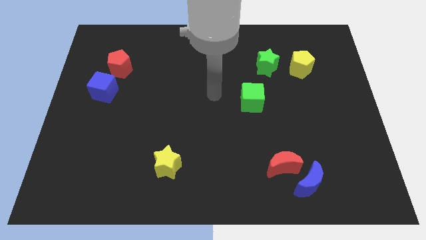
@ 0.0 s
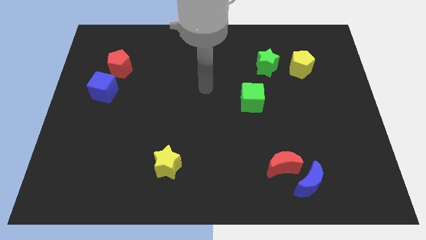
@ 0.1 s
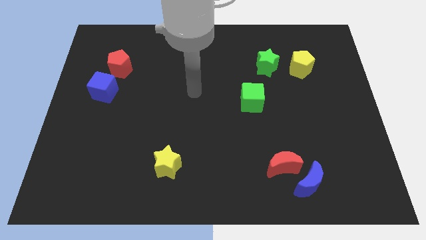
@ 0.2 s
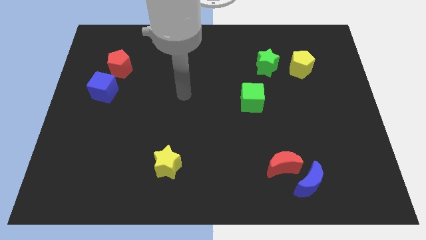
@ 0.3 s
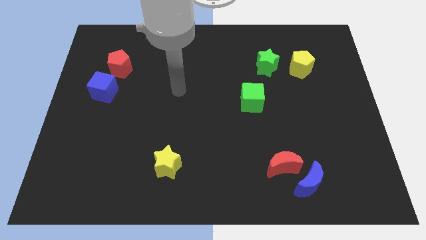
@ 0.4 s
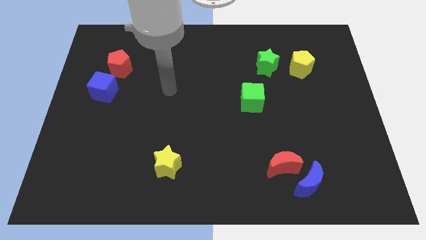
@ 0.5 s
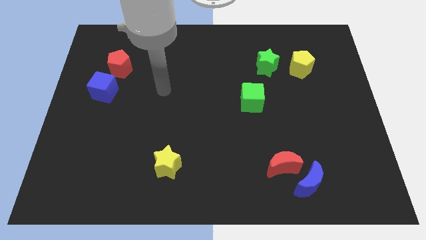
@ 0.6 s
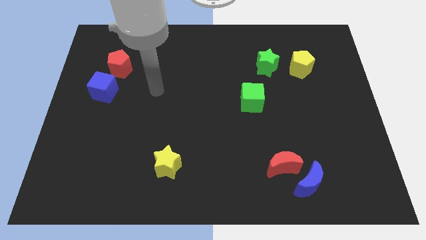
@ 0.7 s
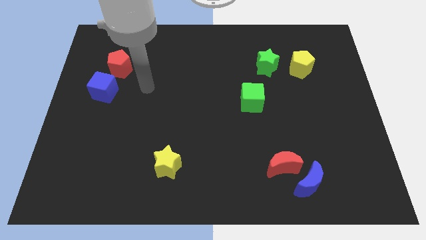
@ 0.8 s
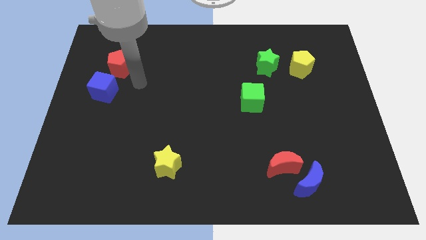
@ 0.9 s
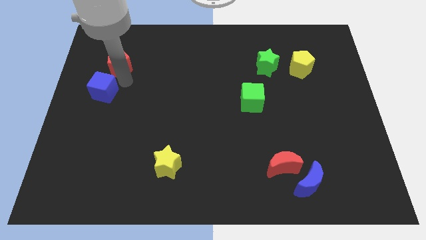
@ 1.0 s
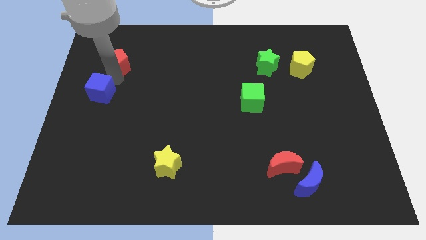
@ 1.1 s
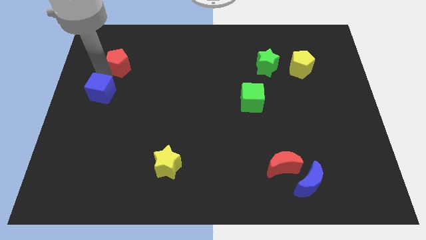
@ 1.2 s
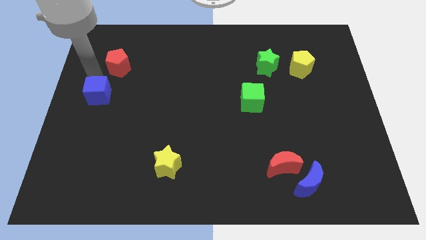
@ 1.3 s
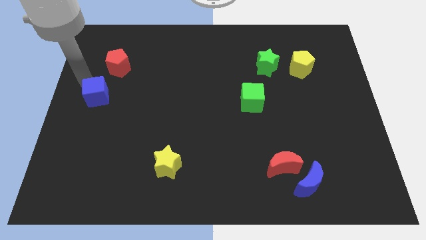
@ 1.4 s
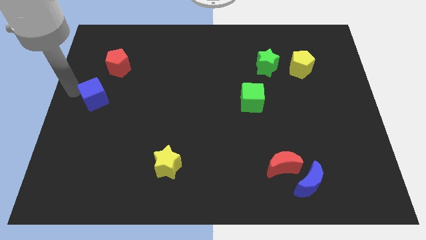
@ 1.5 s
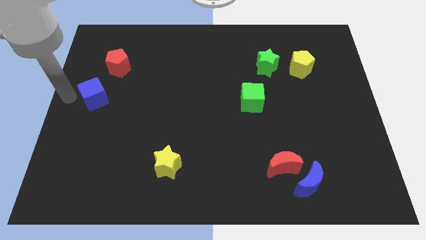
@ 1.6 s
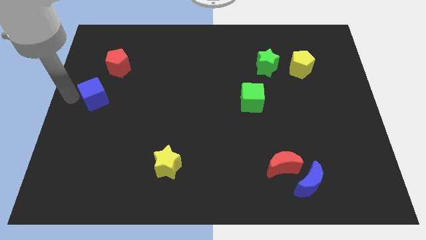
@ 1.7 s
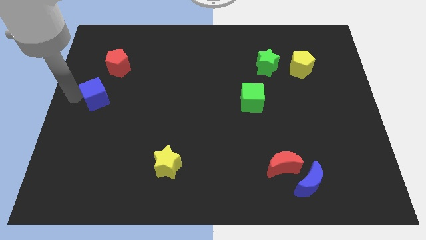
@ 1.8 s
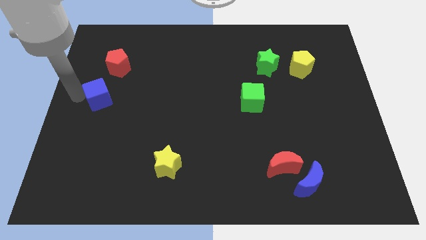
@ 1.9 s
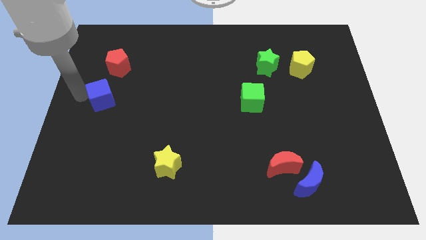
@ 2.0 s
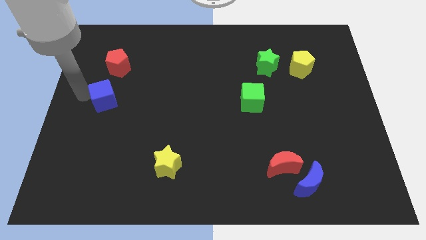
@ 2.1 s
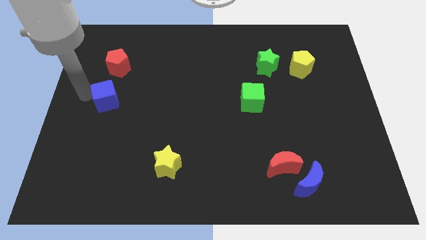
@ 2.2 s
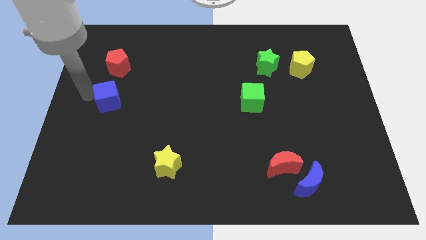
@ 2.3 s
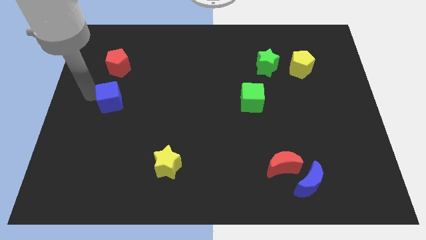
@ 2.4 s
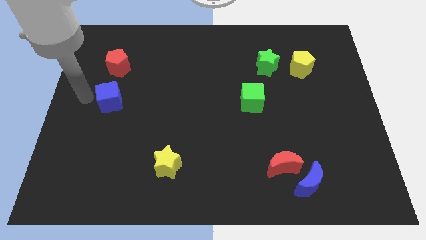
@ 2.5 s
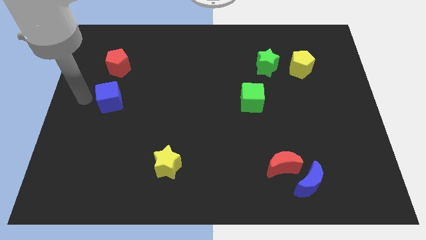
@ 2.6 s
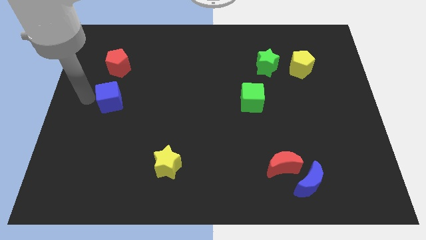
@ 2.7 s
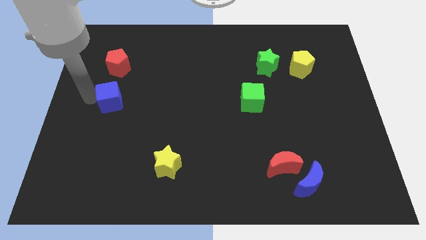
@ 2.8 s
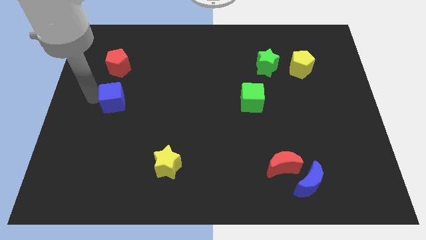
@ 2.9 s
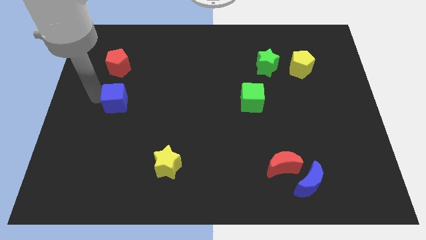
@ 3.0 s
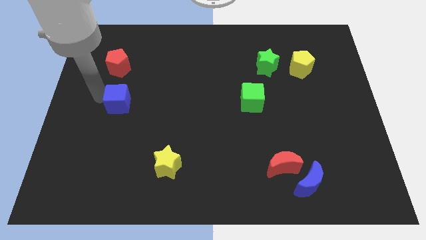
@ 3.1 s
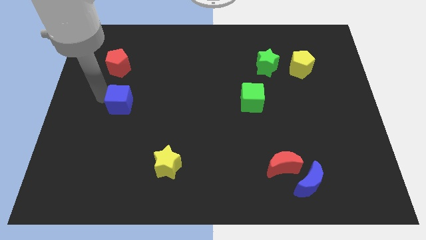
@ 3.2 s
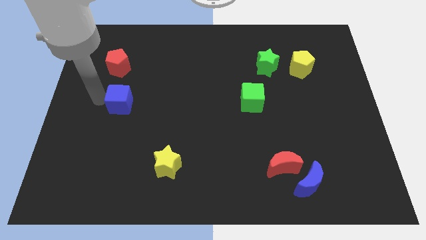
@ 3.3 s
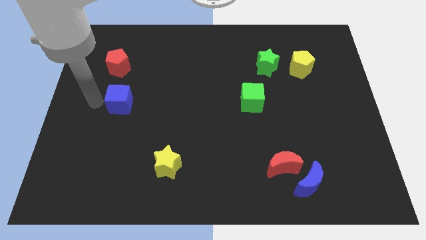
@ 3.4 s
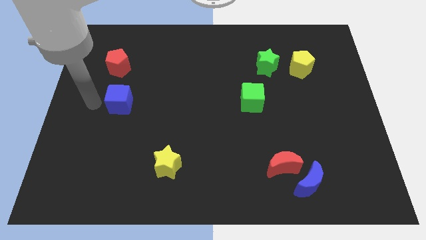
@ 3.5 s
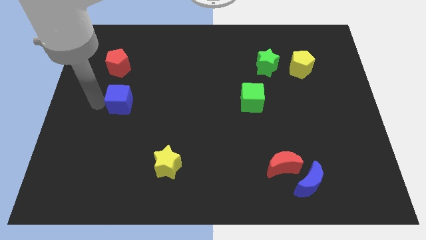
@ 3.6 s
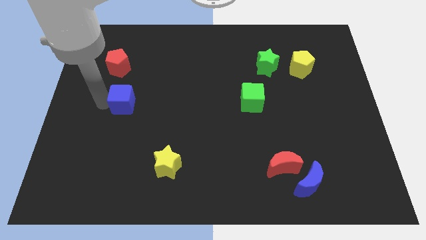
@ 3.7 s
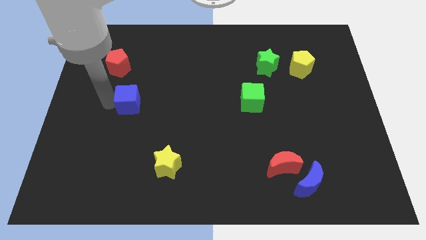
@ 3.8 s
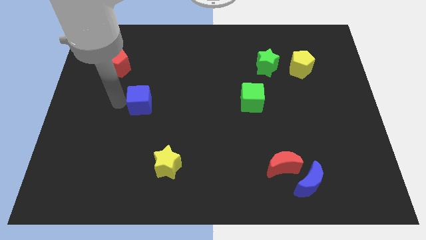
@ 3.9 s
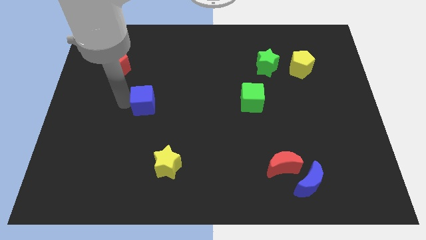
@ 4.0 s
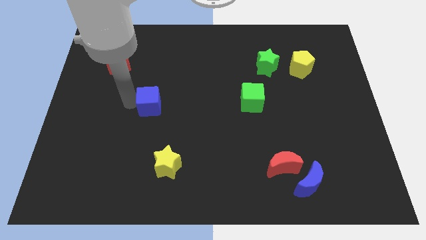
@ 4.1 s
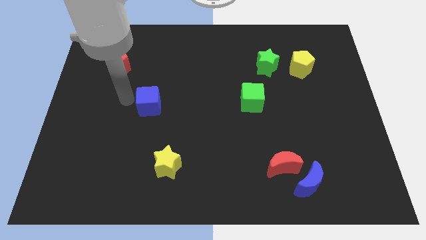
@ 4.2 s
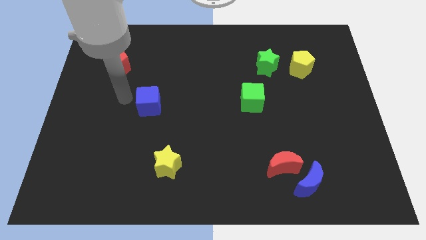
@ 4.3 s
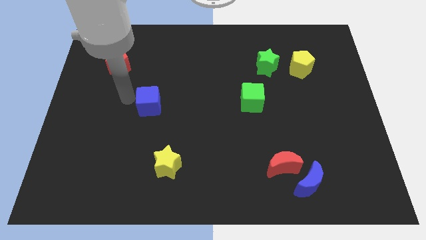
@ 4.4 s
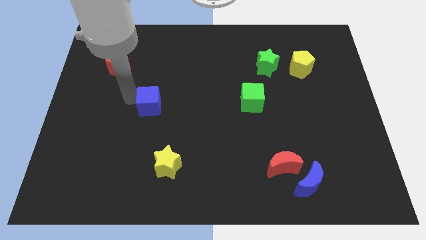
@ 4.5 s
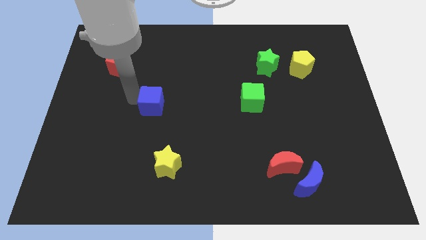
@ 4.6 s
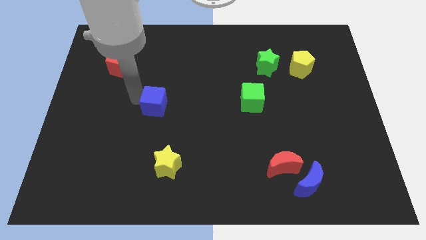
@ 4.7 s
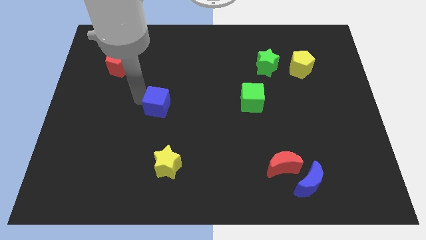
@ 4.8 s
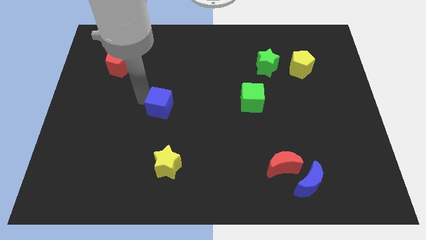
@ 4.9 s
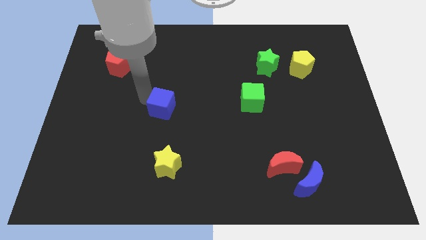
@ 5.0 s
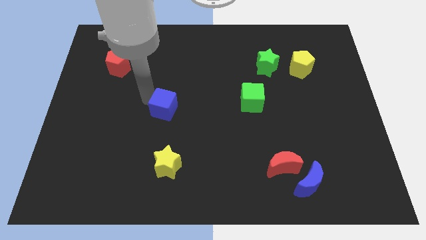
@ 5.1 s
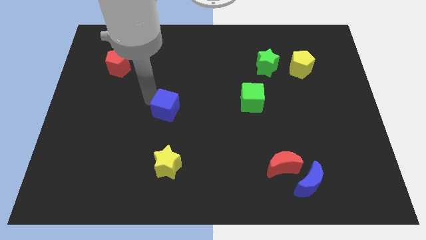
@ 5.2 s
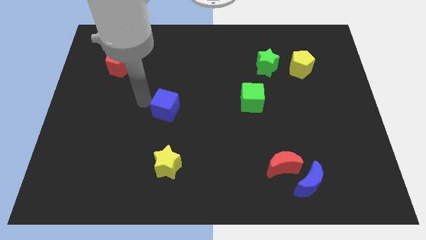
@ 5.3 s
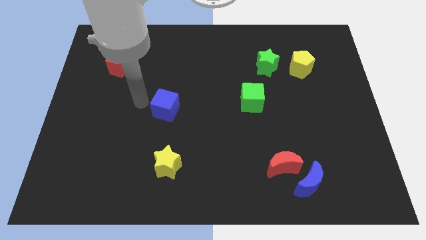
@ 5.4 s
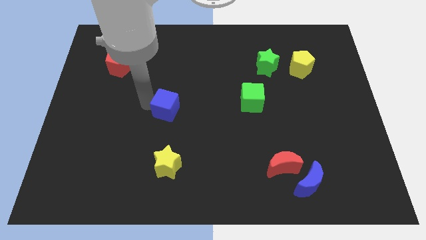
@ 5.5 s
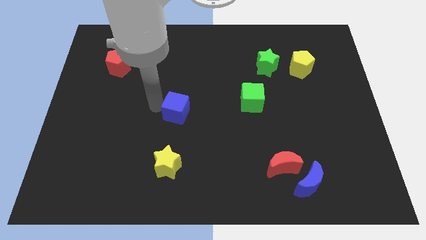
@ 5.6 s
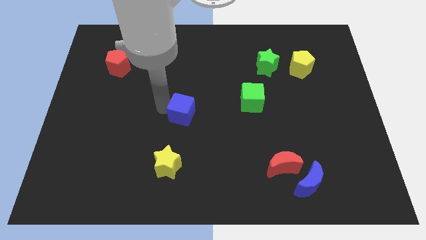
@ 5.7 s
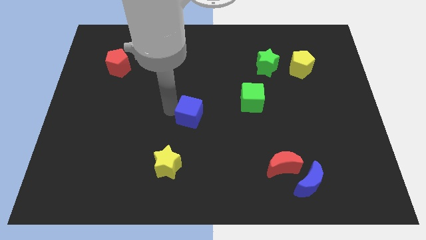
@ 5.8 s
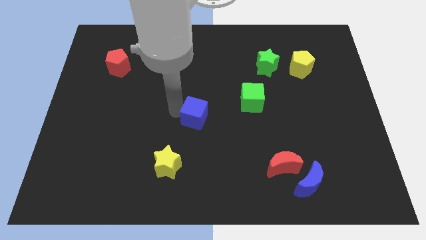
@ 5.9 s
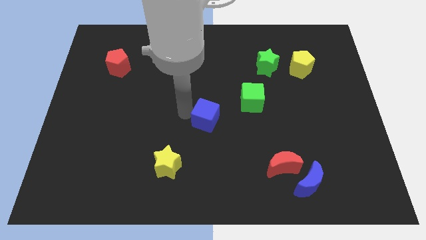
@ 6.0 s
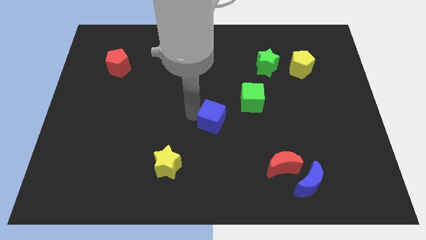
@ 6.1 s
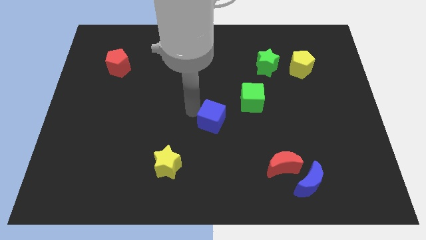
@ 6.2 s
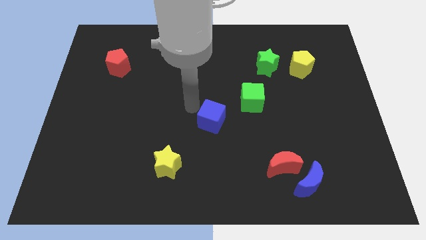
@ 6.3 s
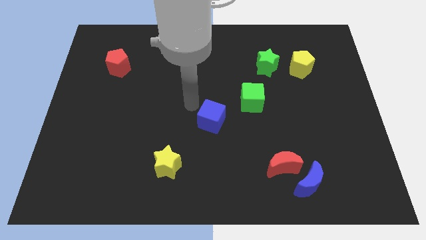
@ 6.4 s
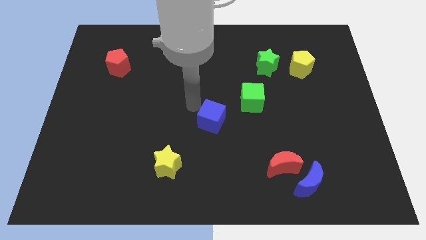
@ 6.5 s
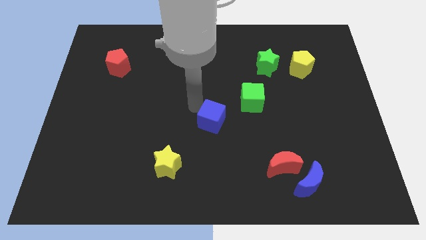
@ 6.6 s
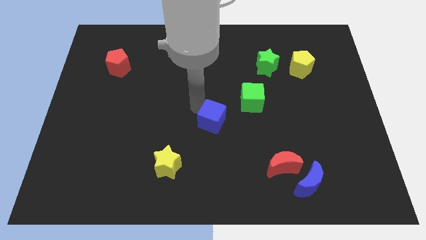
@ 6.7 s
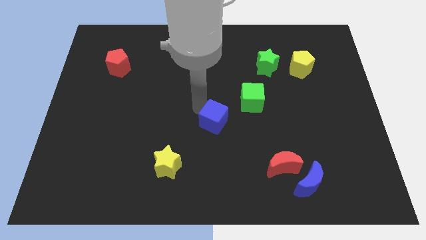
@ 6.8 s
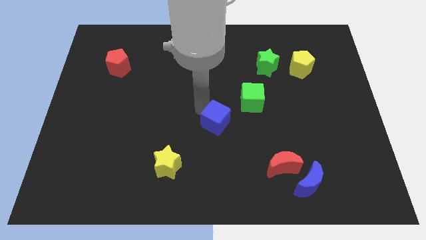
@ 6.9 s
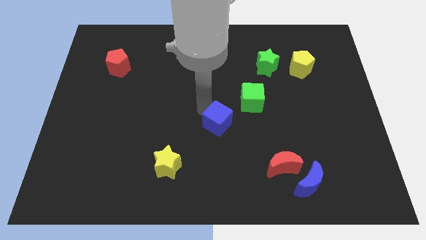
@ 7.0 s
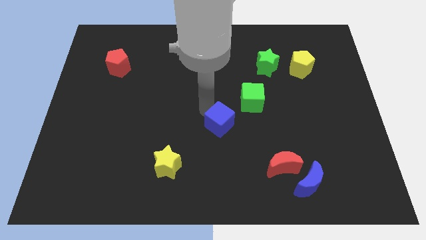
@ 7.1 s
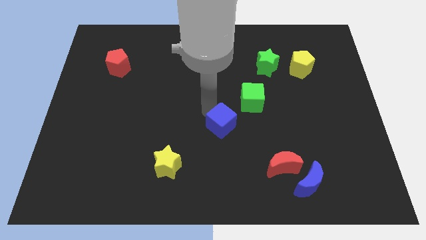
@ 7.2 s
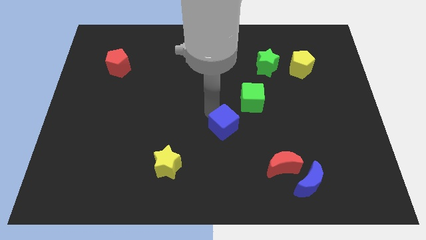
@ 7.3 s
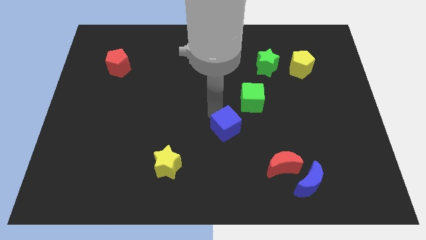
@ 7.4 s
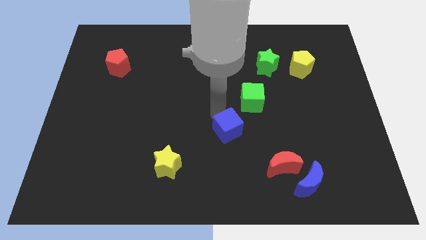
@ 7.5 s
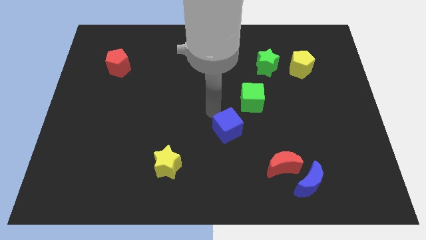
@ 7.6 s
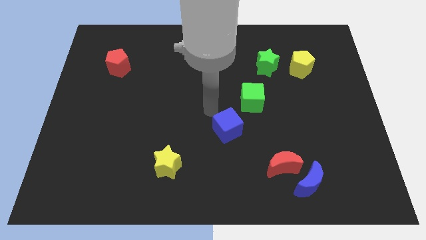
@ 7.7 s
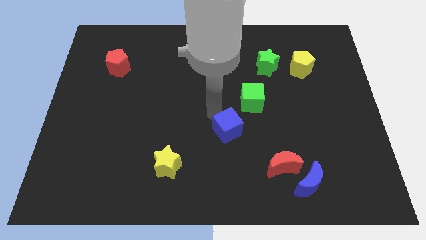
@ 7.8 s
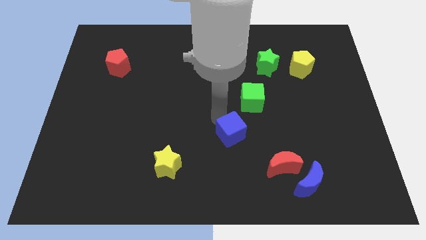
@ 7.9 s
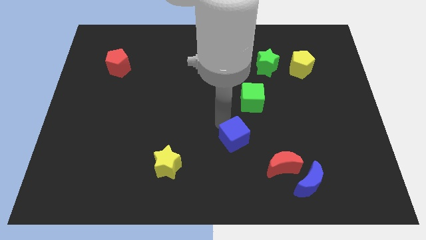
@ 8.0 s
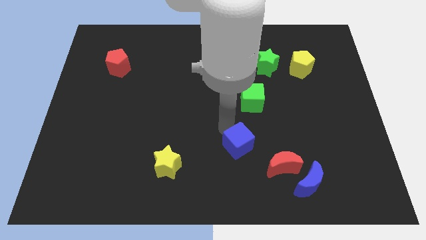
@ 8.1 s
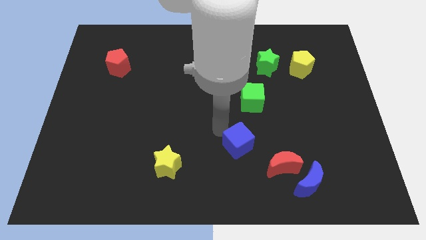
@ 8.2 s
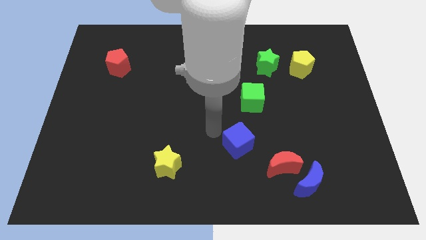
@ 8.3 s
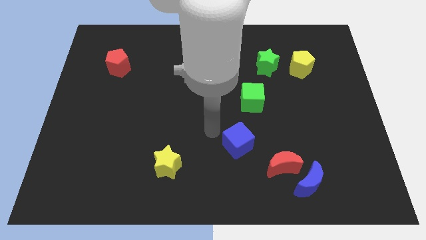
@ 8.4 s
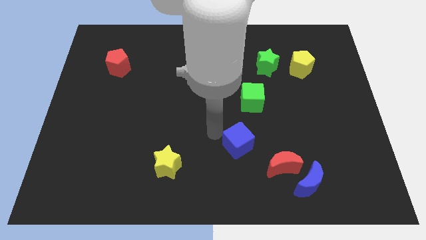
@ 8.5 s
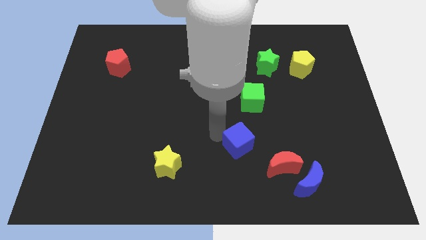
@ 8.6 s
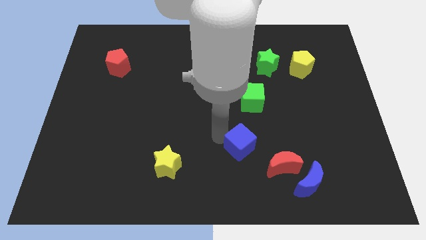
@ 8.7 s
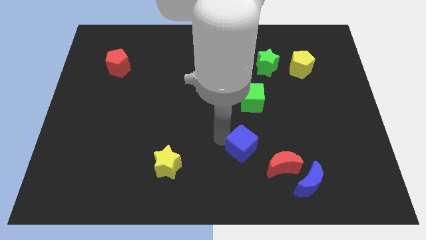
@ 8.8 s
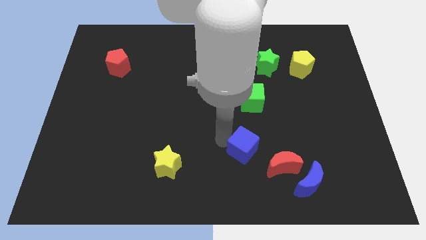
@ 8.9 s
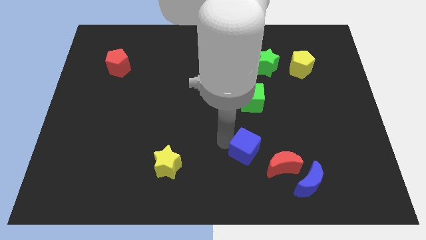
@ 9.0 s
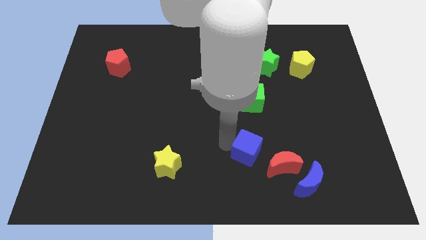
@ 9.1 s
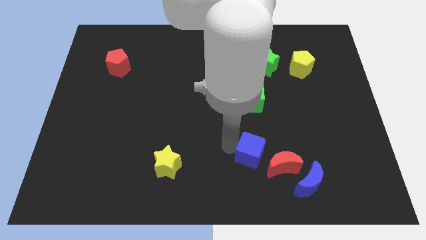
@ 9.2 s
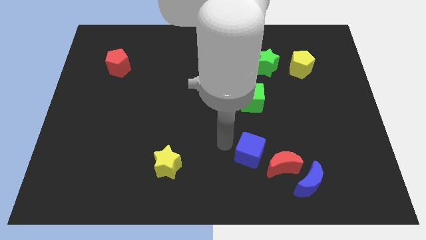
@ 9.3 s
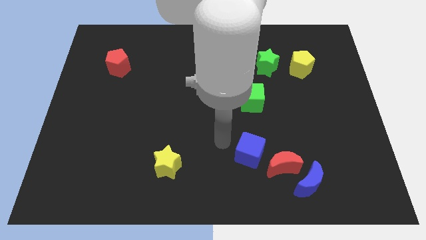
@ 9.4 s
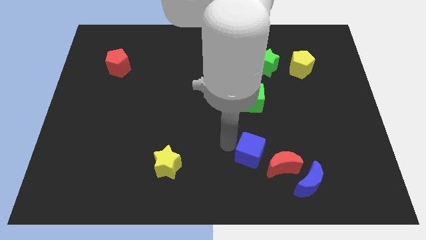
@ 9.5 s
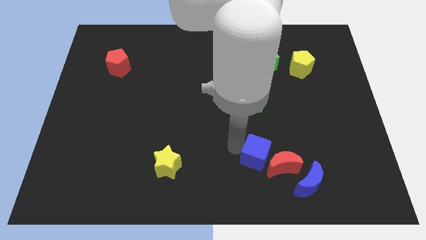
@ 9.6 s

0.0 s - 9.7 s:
push the blue cube to the red moon
